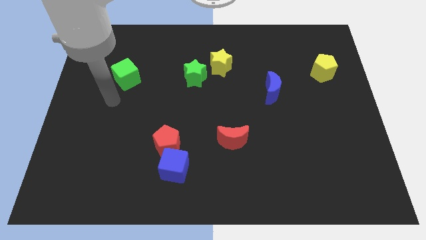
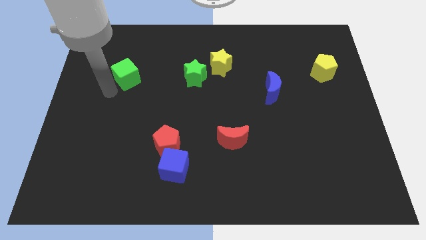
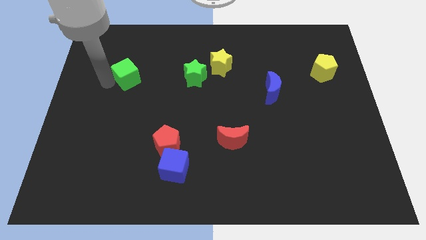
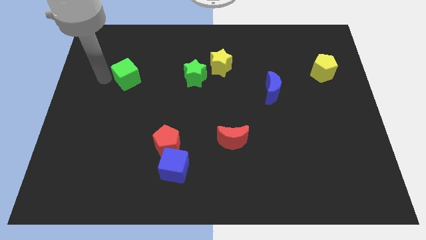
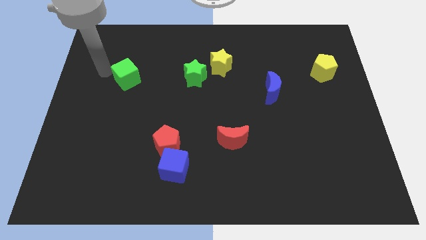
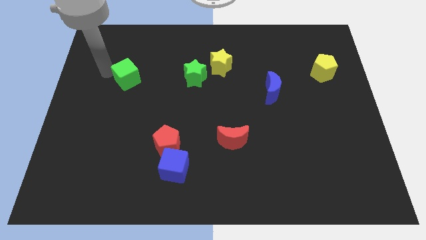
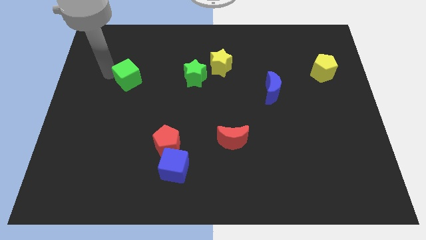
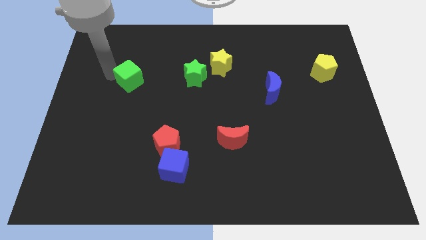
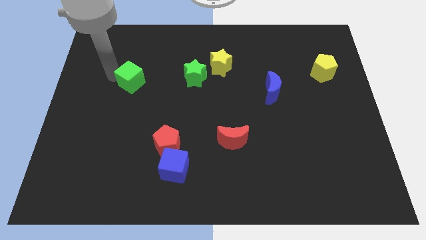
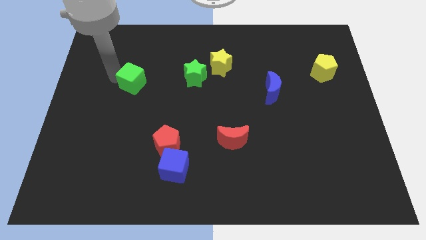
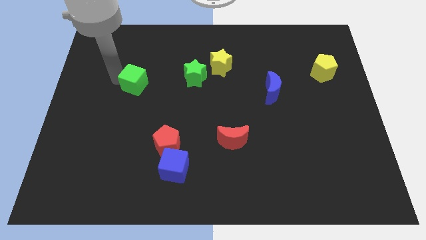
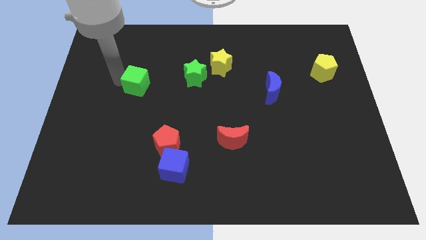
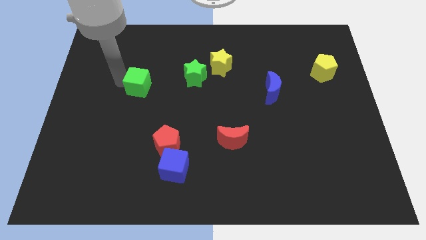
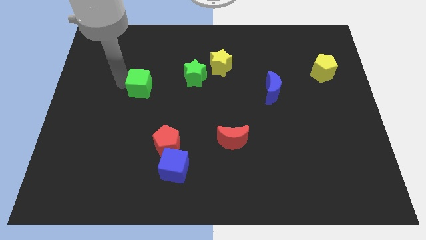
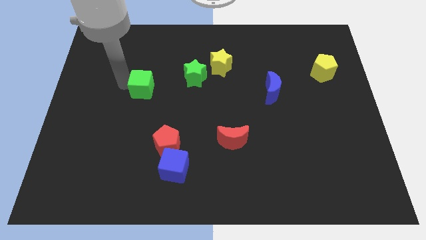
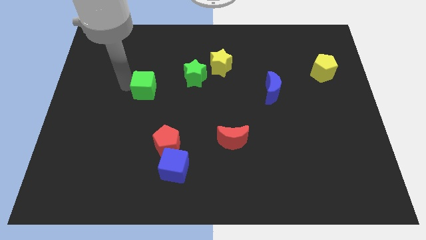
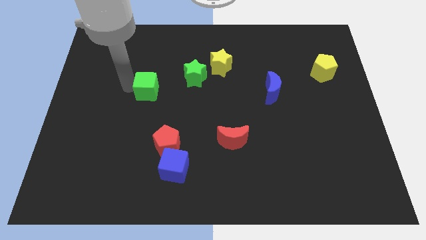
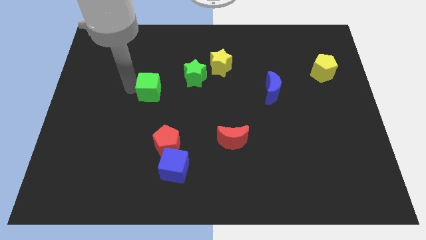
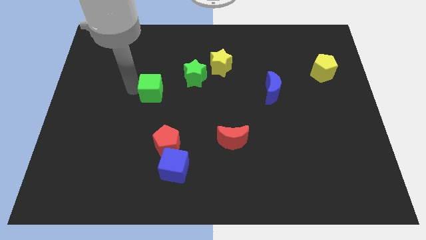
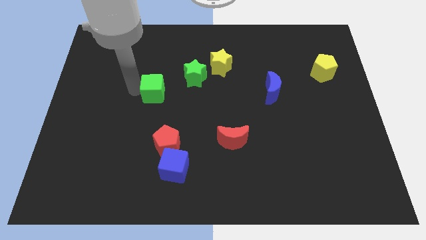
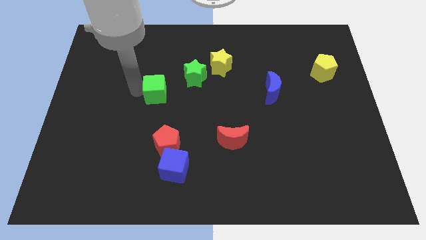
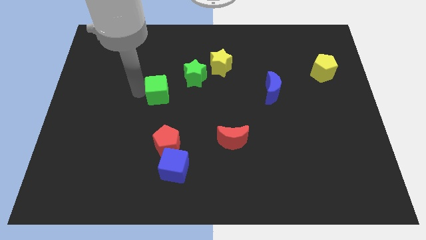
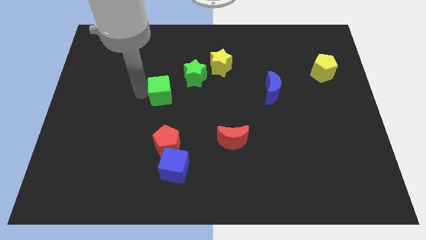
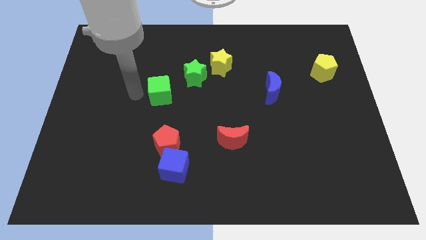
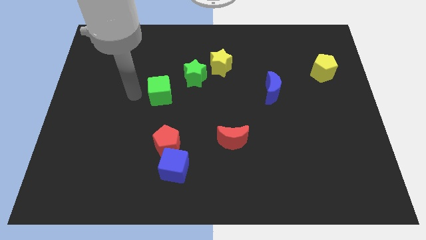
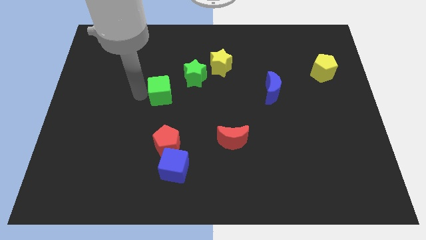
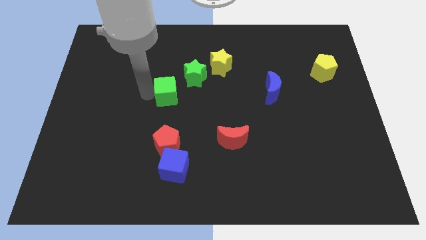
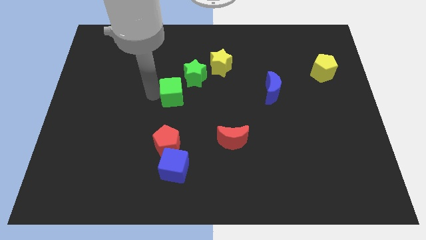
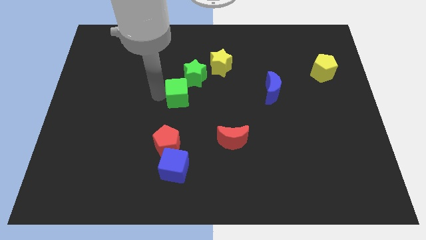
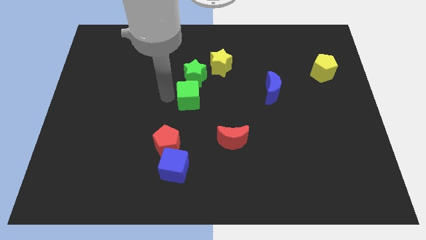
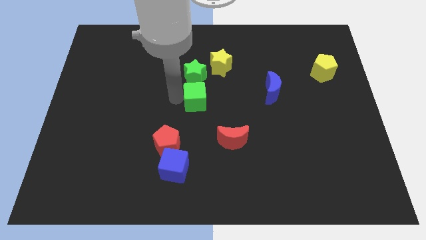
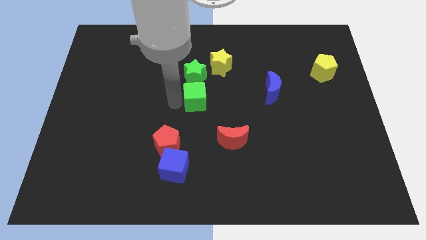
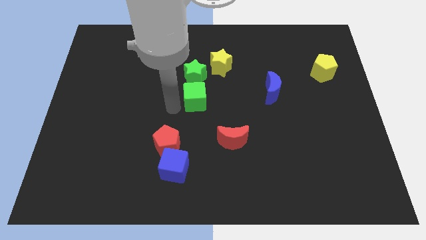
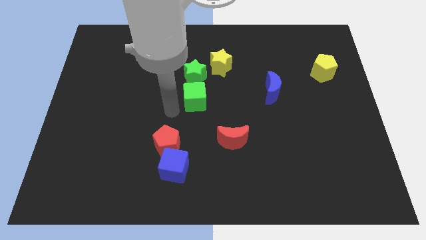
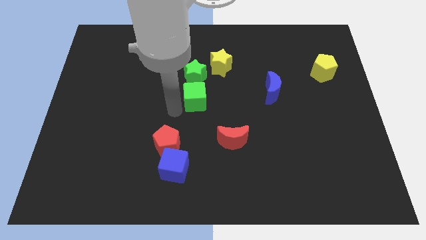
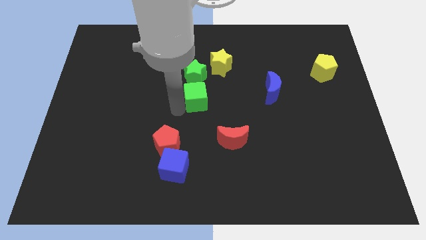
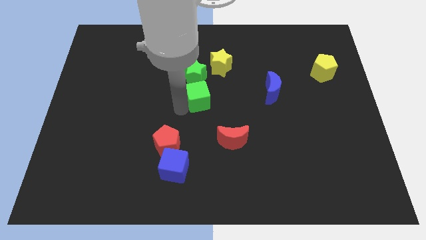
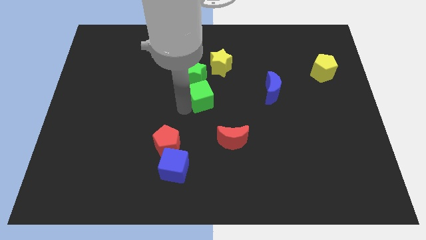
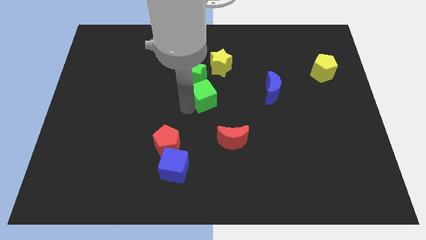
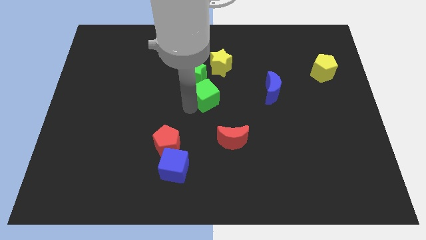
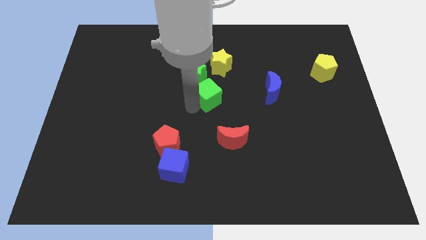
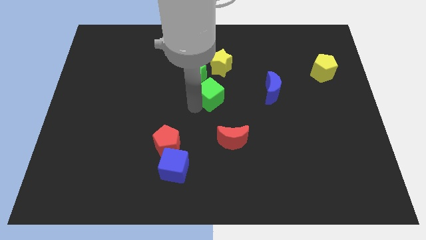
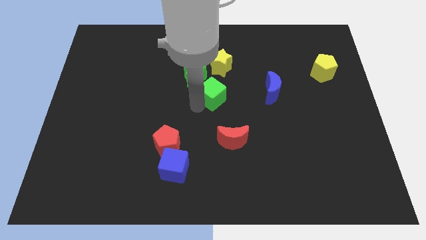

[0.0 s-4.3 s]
push the green cube to the right

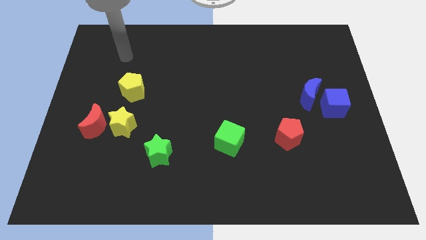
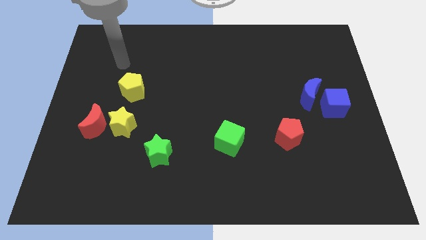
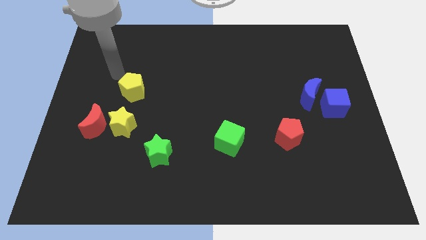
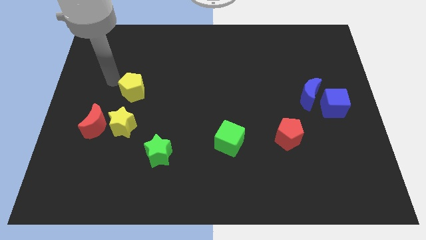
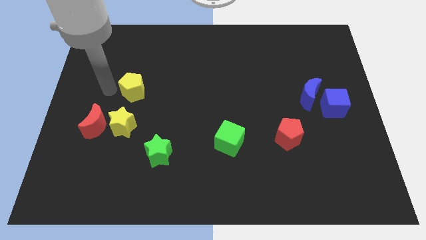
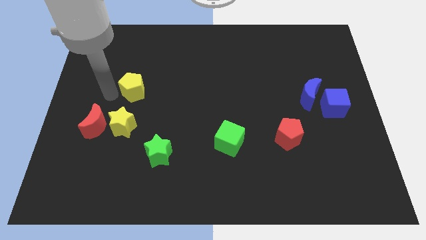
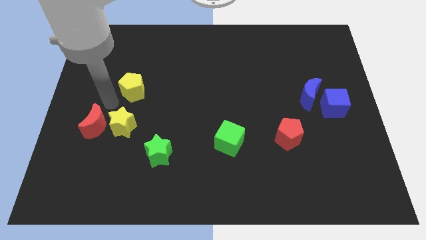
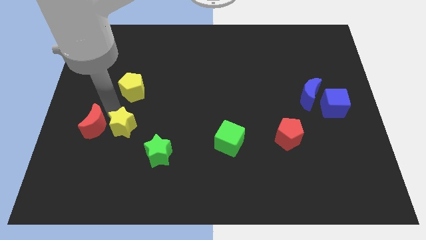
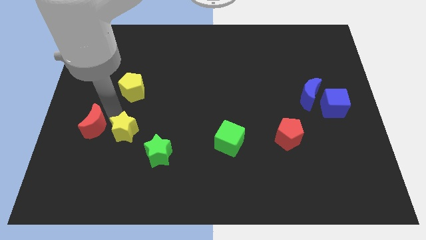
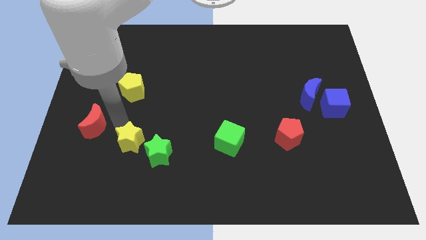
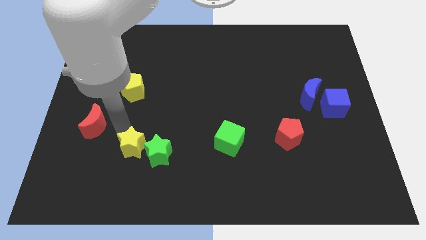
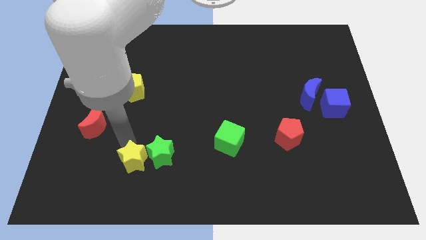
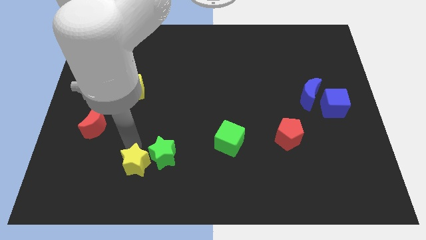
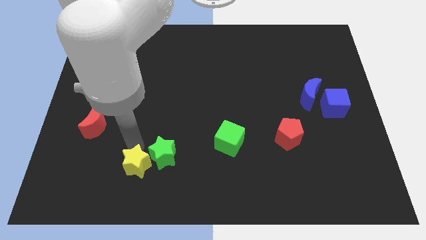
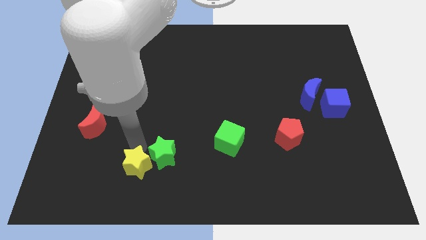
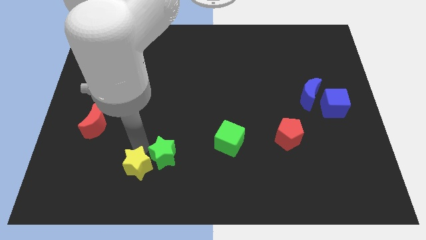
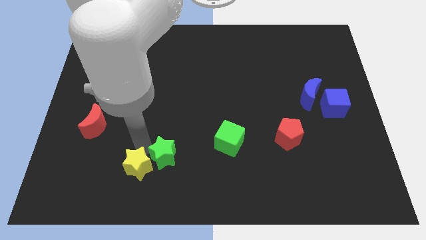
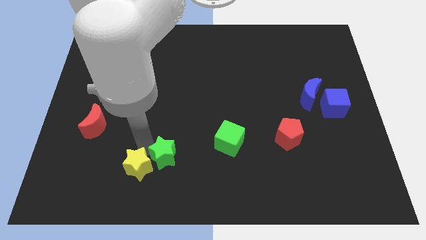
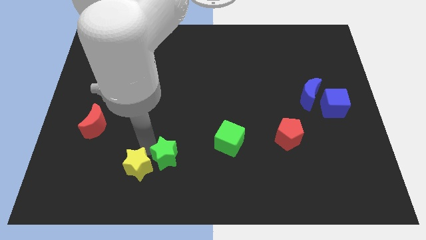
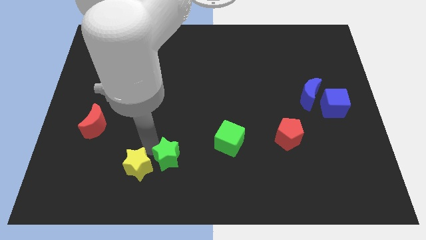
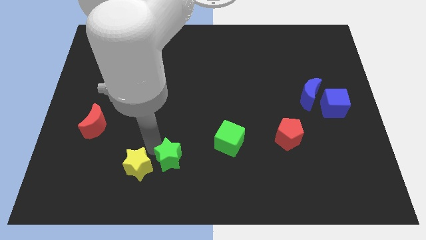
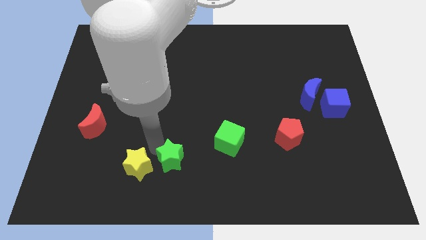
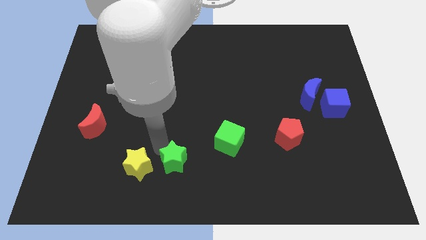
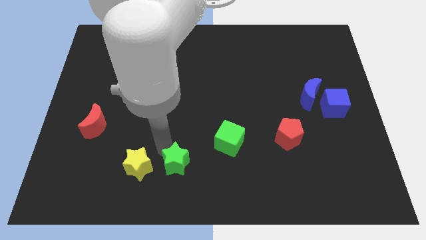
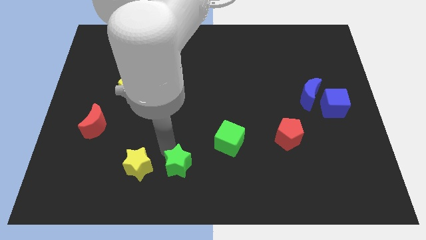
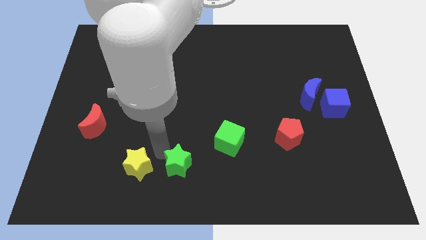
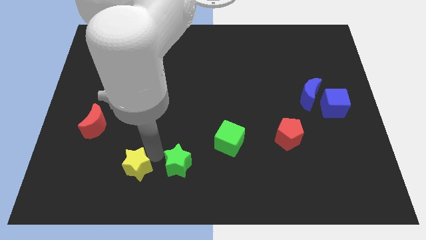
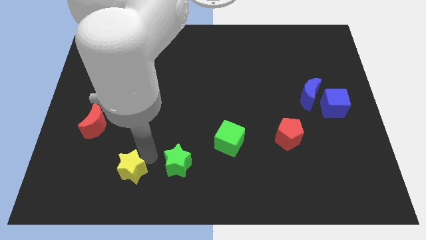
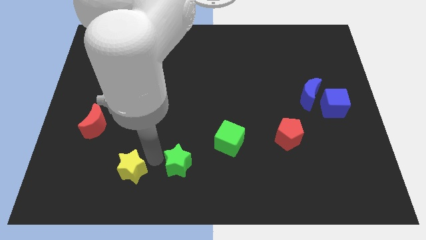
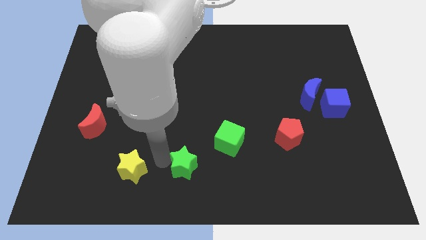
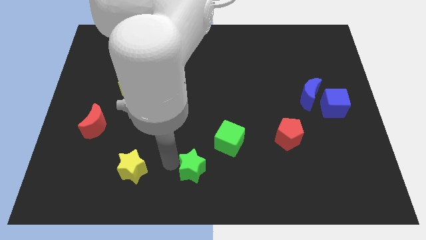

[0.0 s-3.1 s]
push the green star a little to the right
